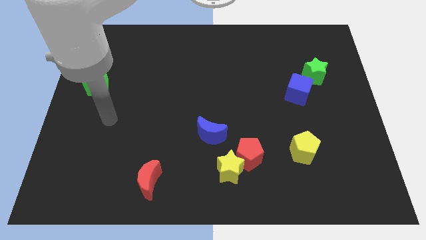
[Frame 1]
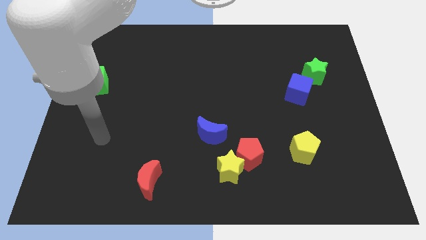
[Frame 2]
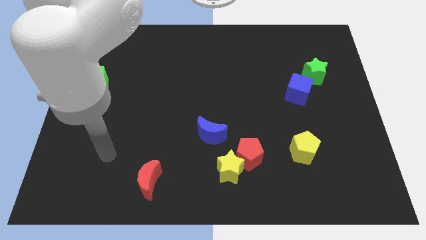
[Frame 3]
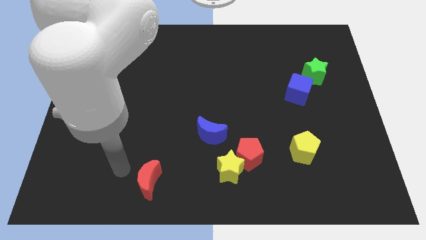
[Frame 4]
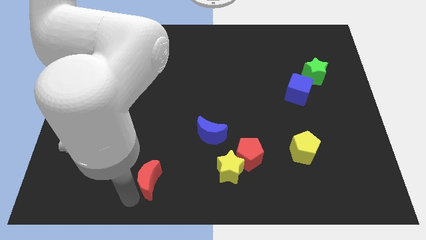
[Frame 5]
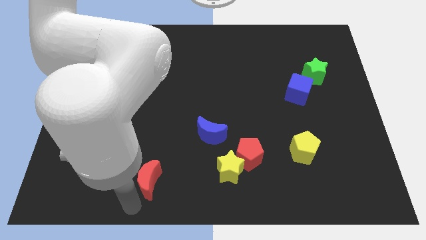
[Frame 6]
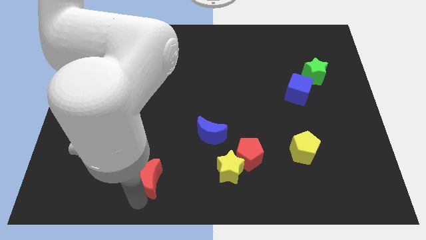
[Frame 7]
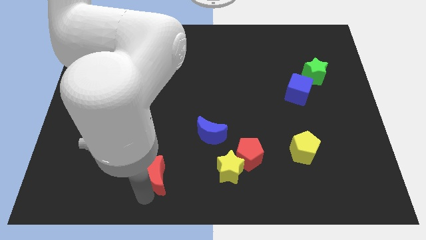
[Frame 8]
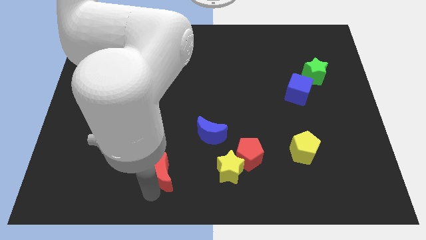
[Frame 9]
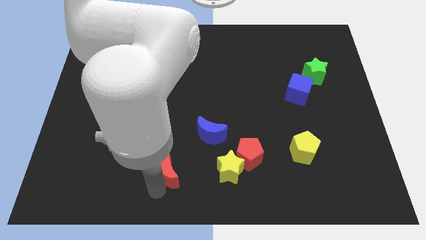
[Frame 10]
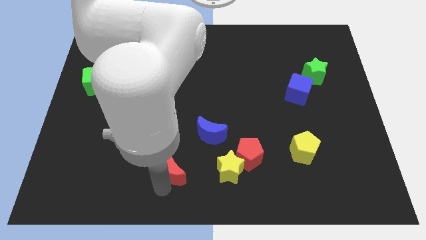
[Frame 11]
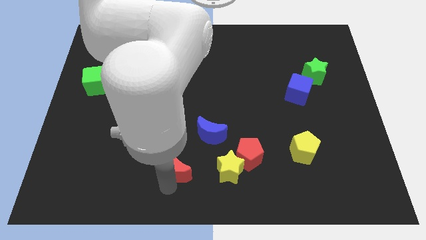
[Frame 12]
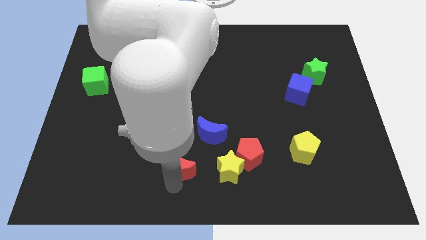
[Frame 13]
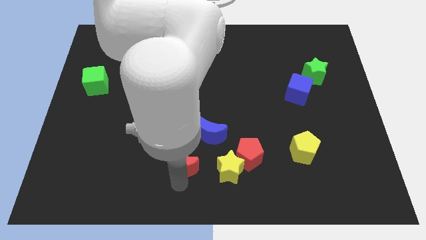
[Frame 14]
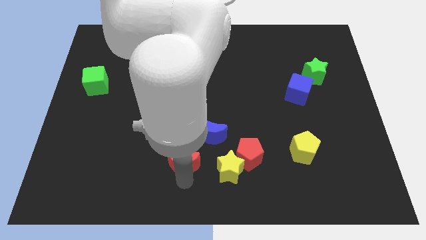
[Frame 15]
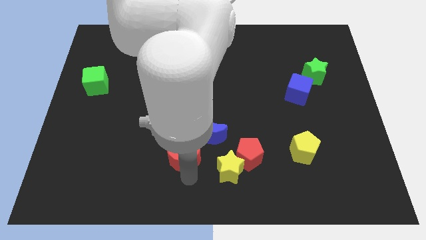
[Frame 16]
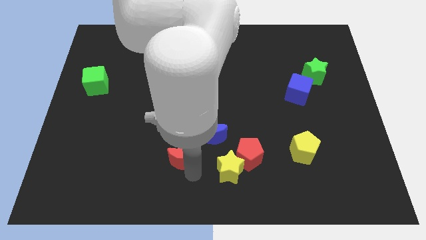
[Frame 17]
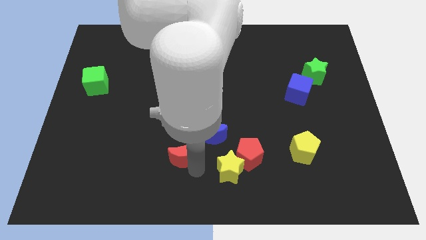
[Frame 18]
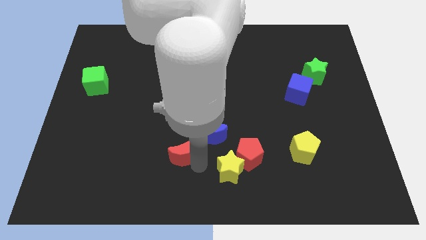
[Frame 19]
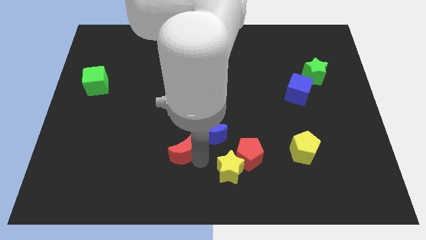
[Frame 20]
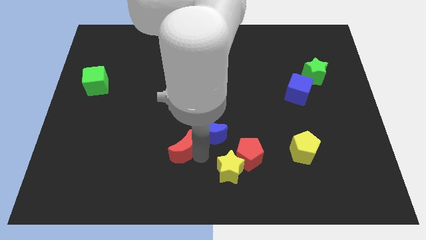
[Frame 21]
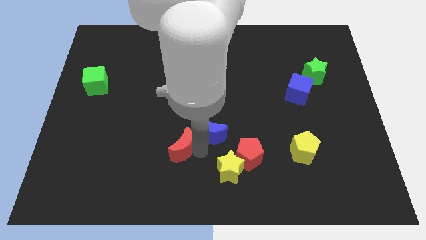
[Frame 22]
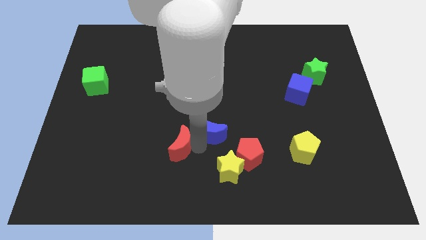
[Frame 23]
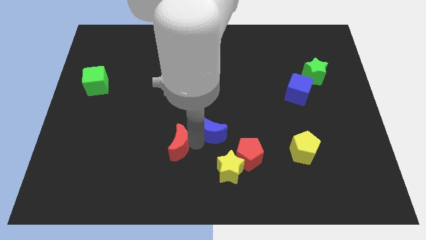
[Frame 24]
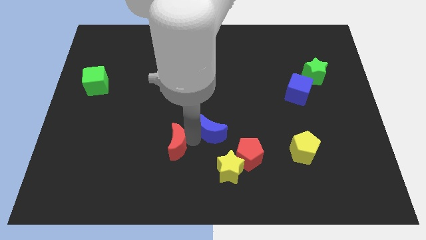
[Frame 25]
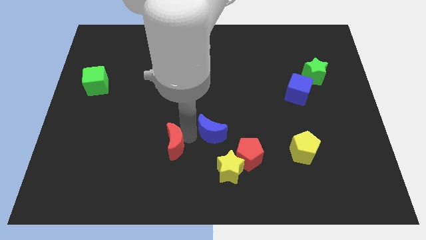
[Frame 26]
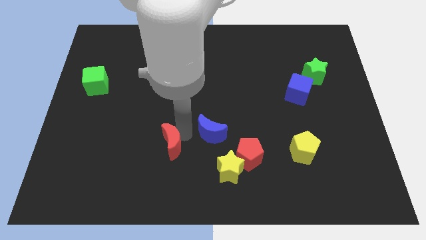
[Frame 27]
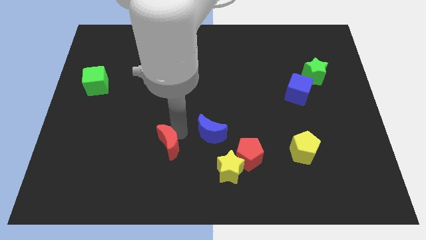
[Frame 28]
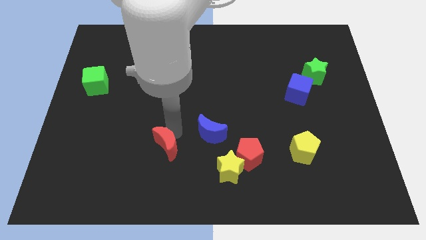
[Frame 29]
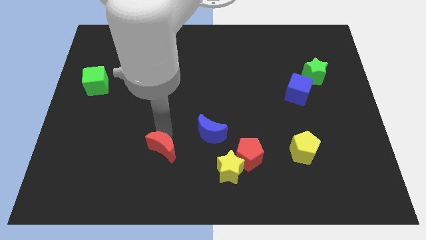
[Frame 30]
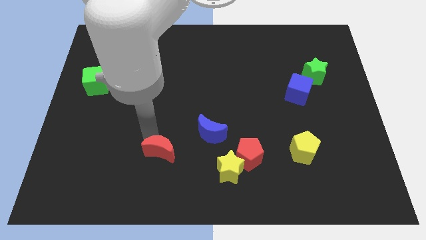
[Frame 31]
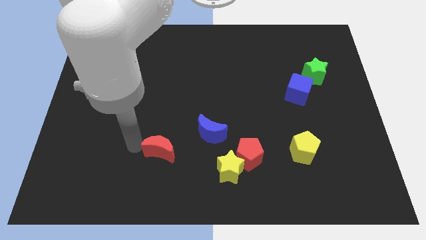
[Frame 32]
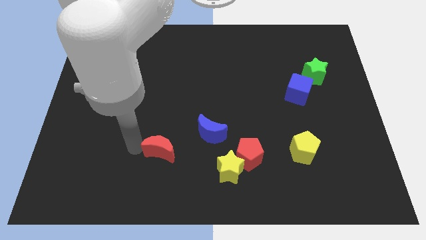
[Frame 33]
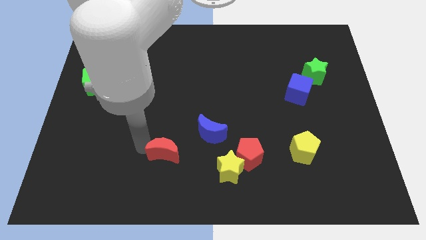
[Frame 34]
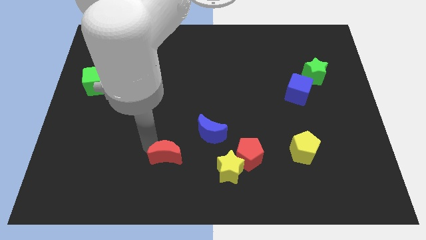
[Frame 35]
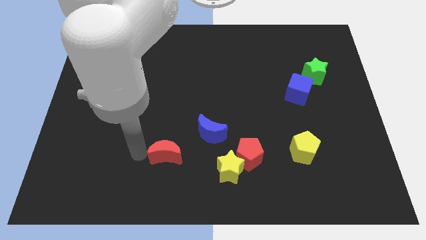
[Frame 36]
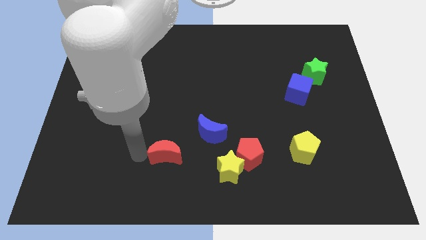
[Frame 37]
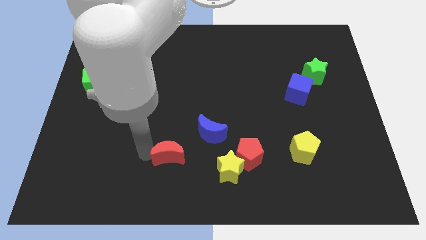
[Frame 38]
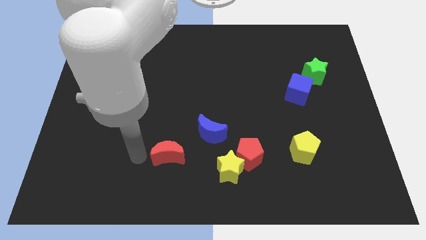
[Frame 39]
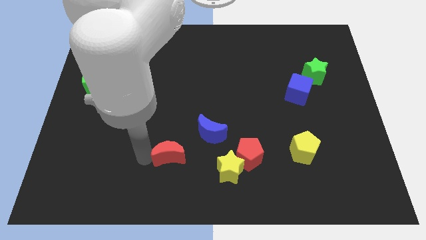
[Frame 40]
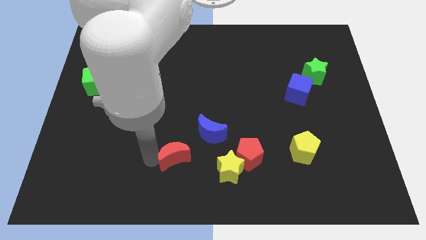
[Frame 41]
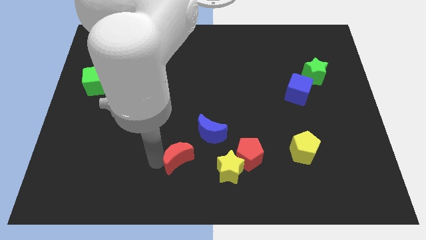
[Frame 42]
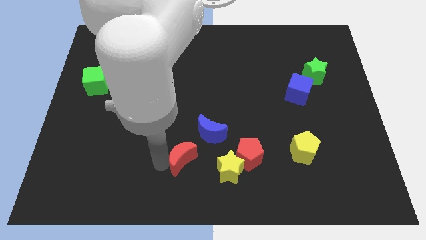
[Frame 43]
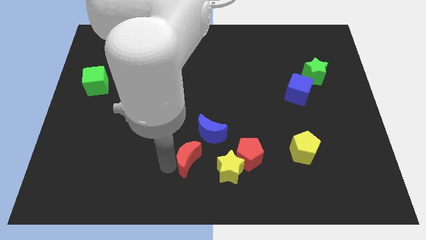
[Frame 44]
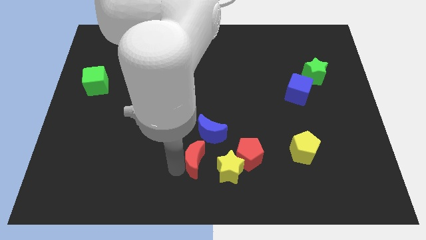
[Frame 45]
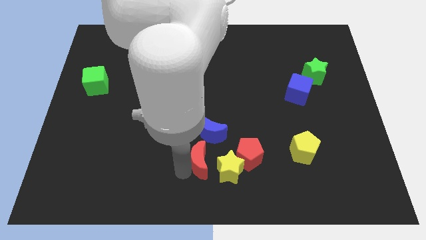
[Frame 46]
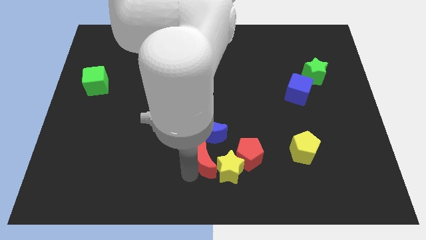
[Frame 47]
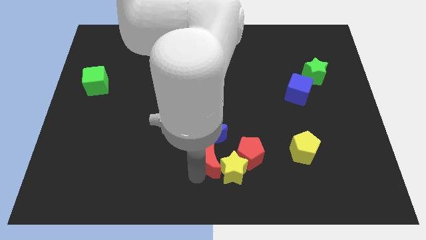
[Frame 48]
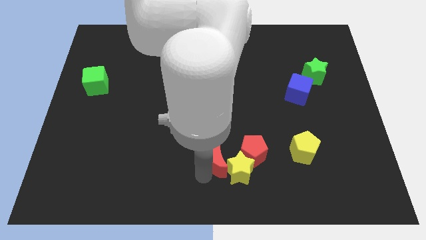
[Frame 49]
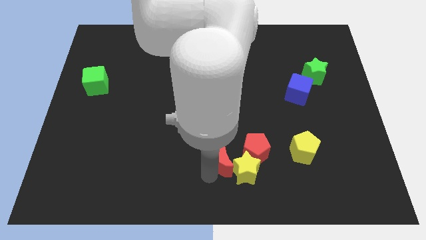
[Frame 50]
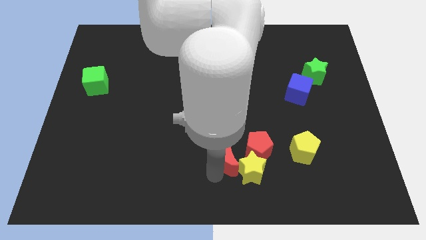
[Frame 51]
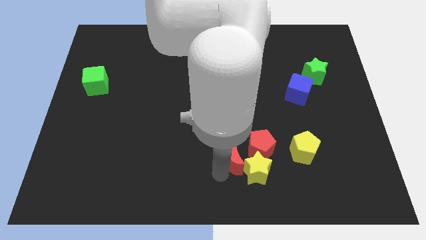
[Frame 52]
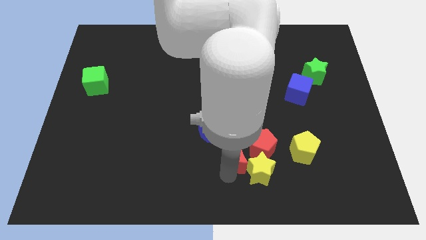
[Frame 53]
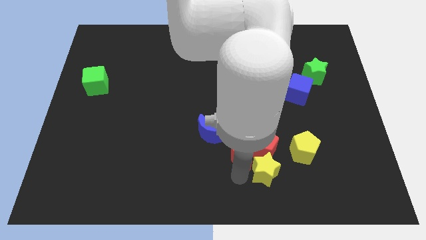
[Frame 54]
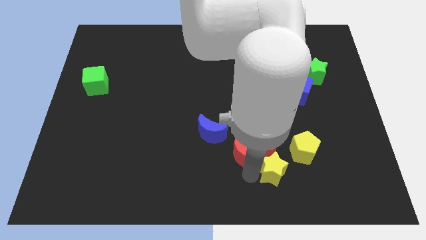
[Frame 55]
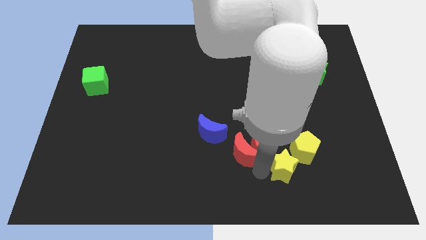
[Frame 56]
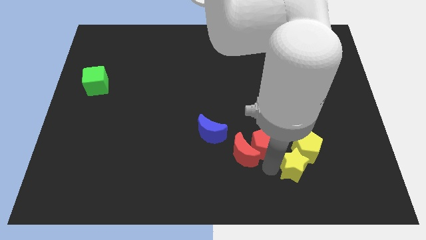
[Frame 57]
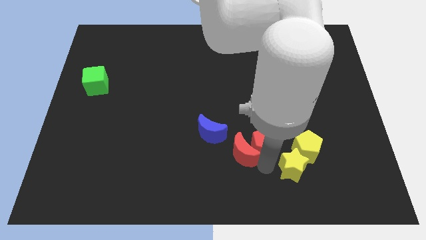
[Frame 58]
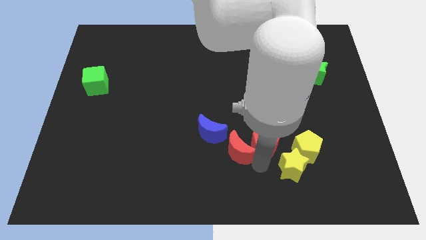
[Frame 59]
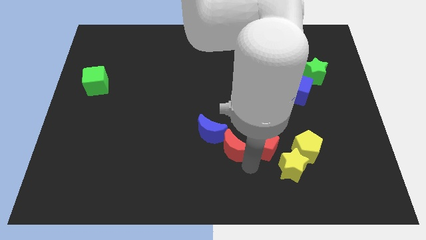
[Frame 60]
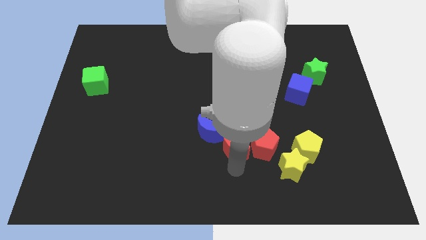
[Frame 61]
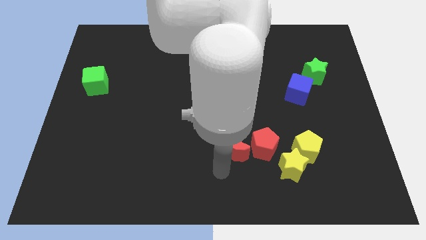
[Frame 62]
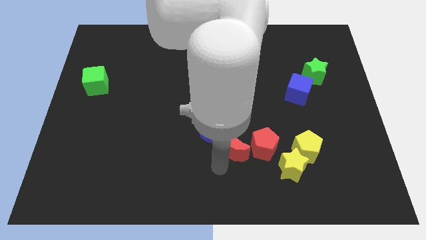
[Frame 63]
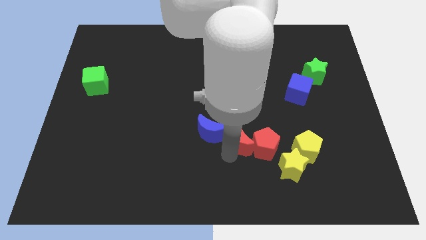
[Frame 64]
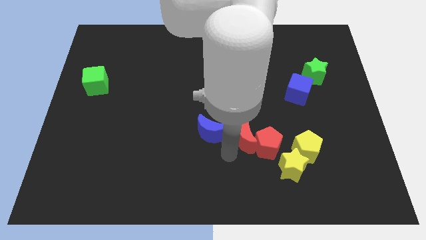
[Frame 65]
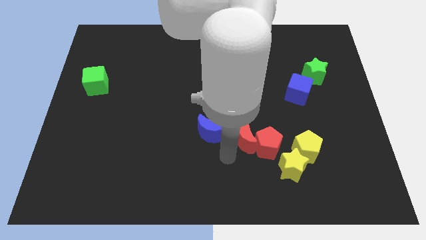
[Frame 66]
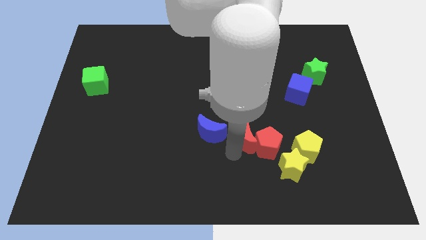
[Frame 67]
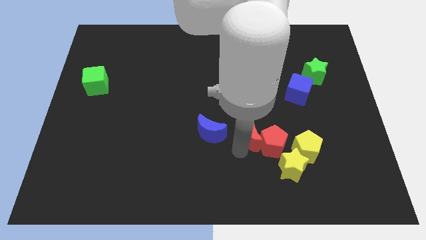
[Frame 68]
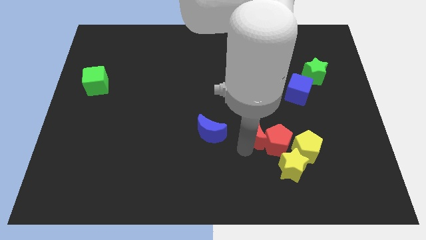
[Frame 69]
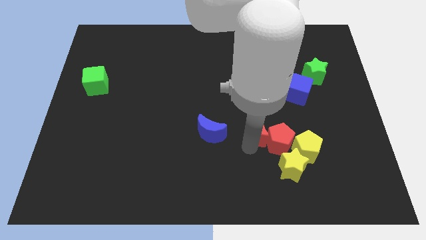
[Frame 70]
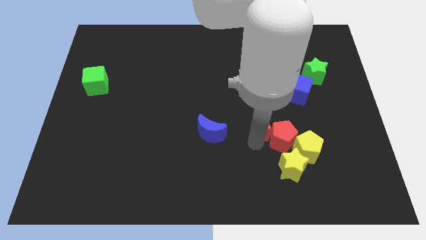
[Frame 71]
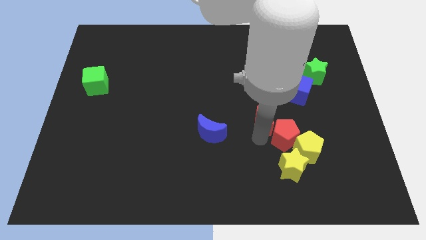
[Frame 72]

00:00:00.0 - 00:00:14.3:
slide the red moon to the bottom left side of the blue cube

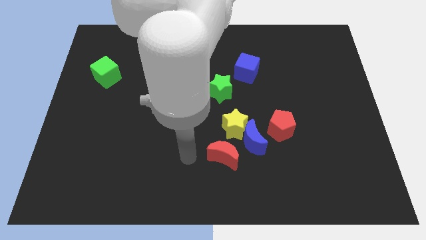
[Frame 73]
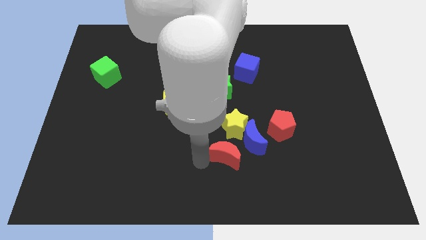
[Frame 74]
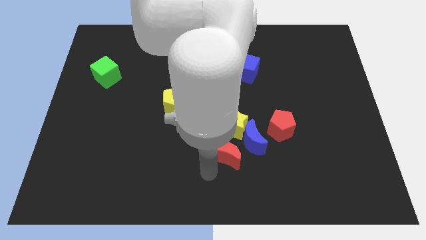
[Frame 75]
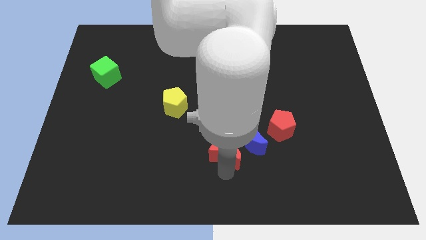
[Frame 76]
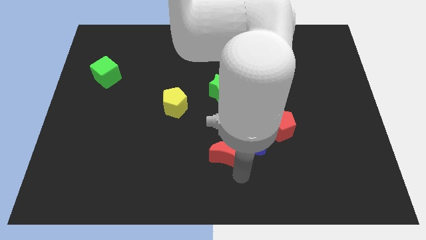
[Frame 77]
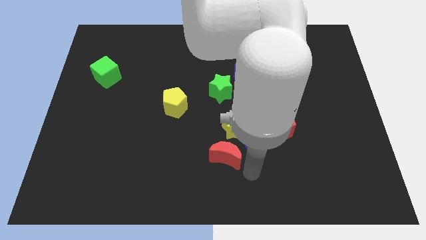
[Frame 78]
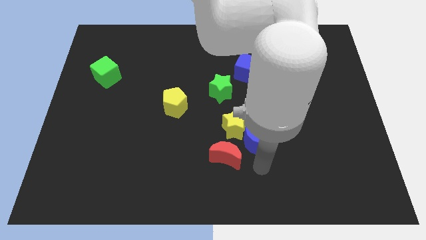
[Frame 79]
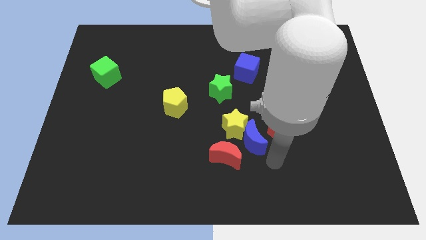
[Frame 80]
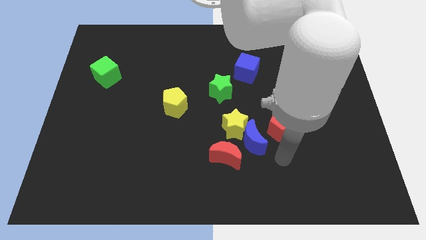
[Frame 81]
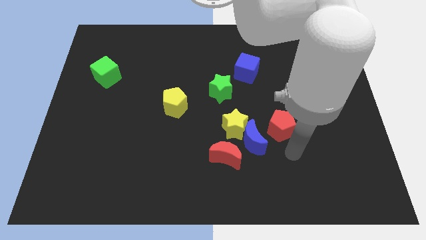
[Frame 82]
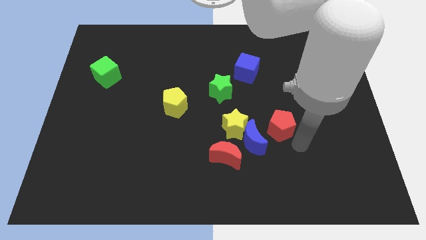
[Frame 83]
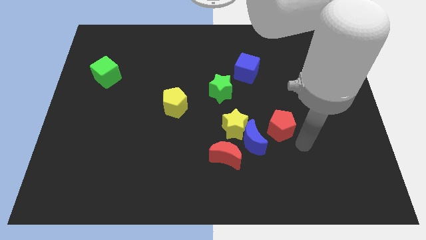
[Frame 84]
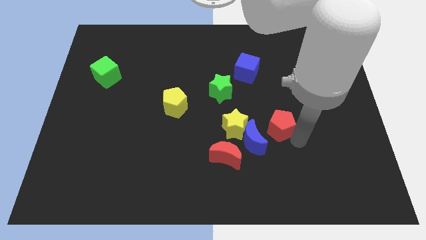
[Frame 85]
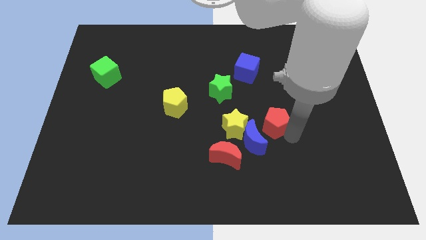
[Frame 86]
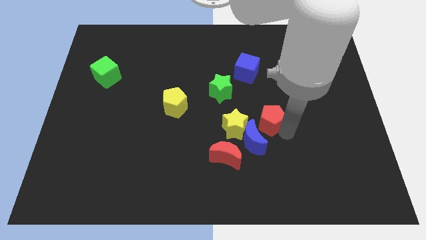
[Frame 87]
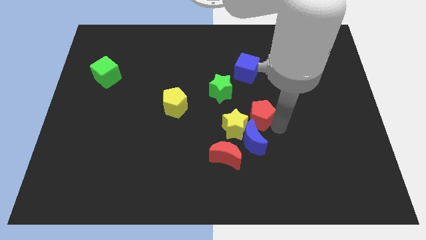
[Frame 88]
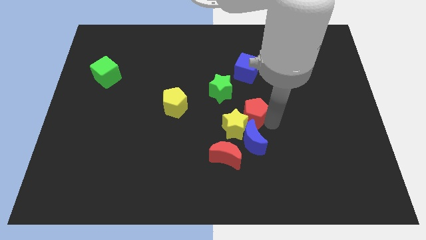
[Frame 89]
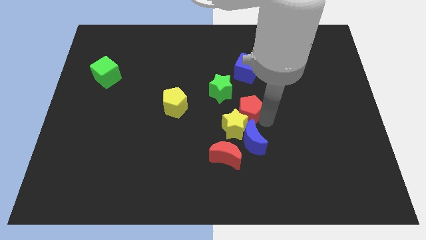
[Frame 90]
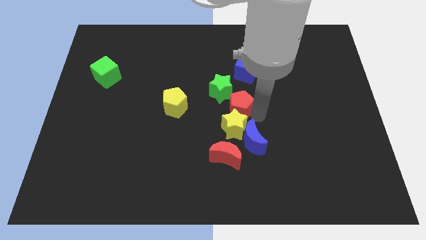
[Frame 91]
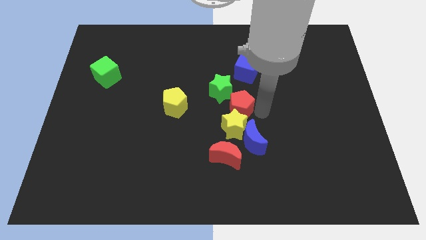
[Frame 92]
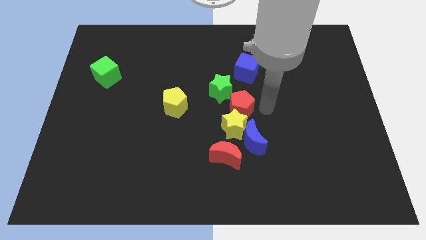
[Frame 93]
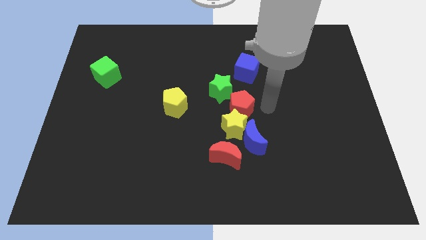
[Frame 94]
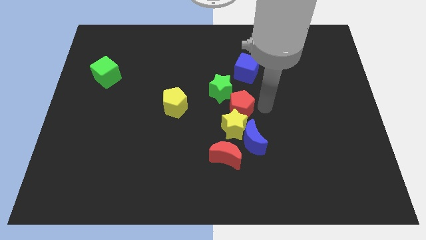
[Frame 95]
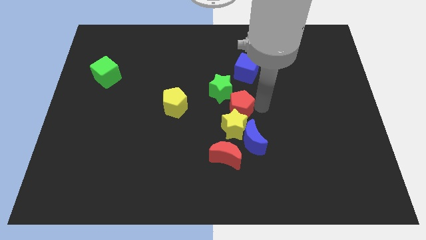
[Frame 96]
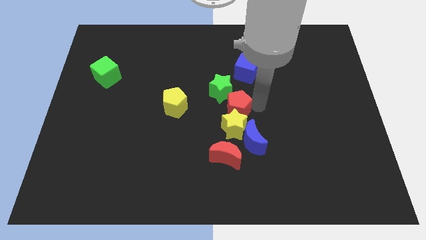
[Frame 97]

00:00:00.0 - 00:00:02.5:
slide the red pentagon to the top left of the yellow star
